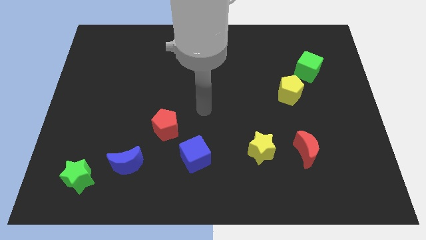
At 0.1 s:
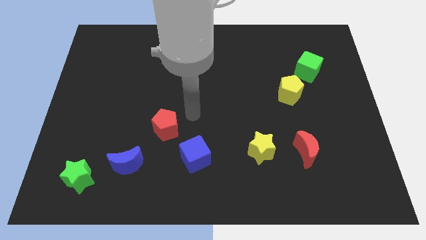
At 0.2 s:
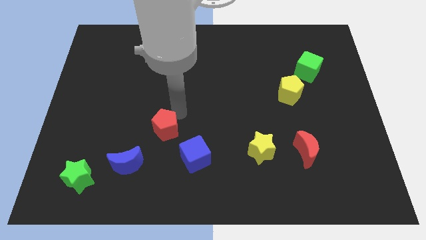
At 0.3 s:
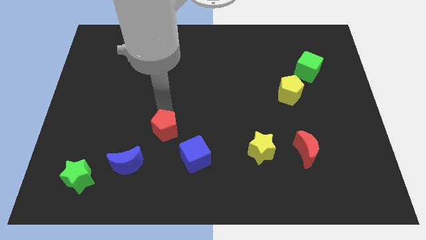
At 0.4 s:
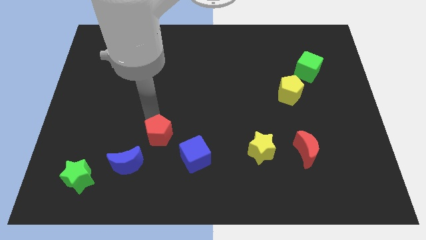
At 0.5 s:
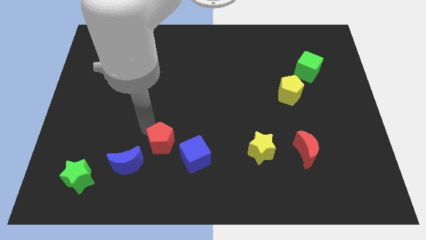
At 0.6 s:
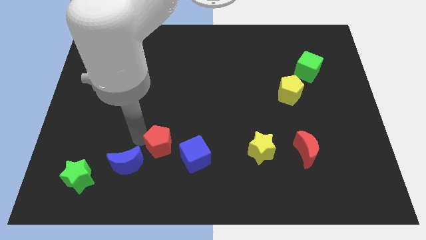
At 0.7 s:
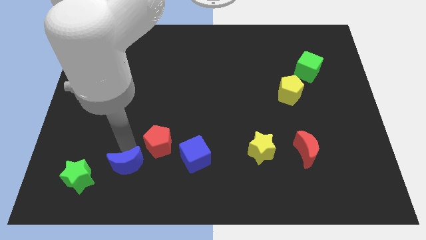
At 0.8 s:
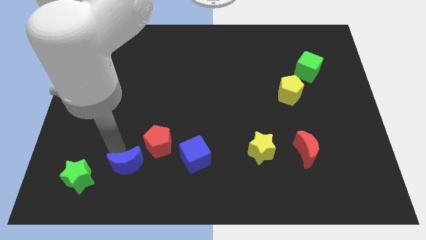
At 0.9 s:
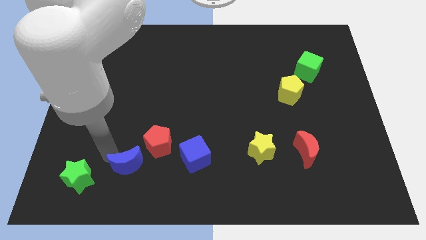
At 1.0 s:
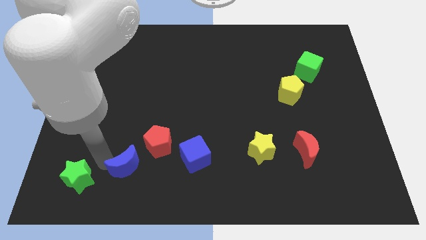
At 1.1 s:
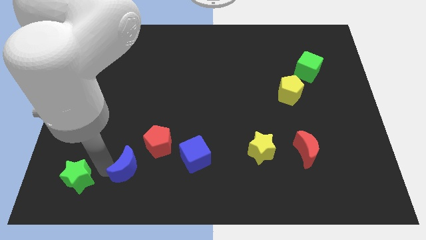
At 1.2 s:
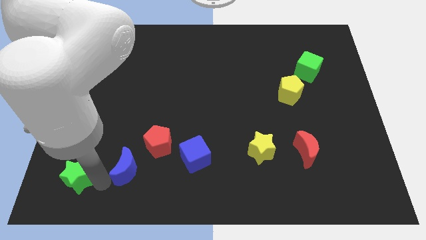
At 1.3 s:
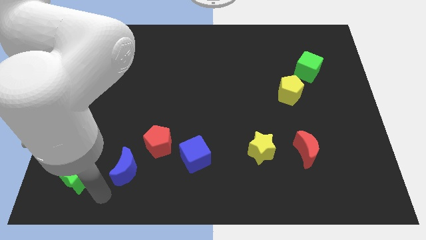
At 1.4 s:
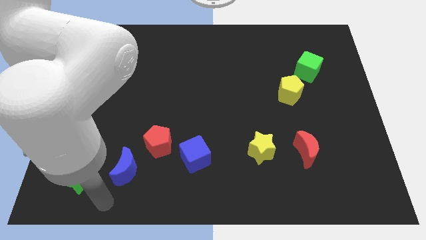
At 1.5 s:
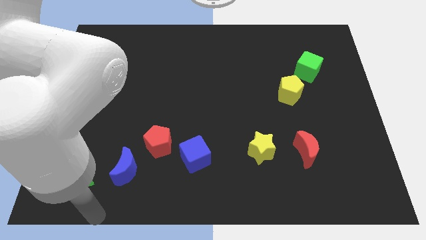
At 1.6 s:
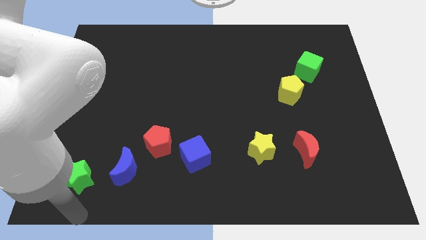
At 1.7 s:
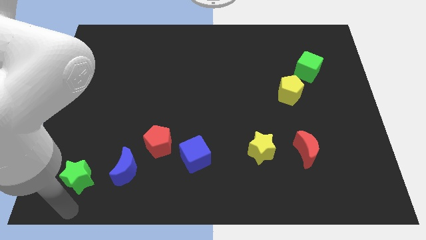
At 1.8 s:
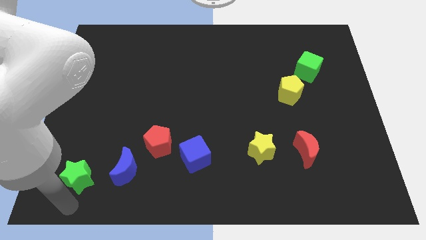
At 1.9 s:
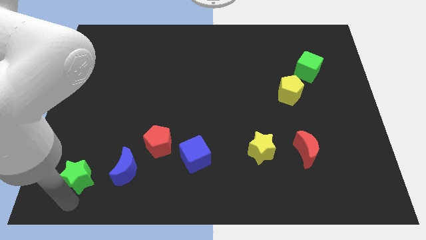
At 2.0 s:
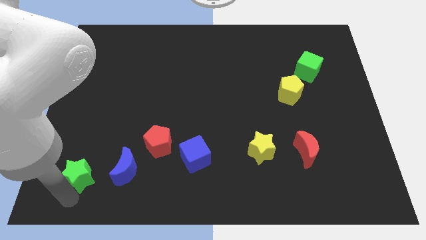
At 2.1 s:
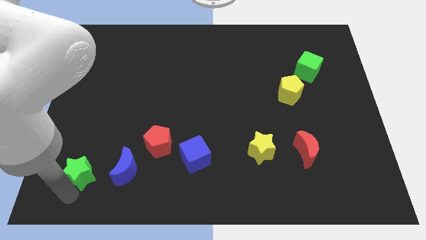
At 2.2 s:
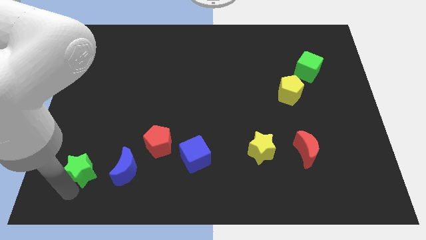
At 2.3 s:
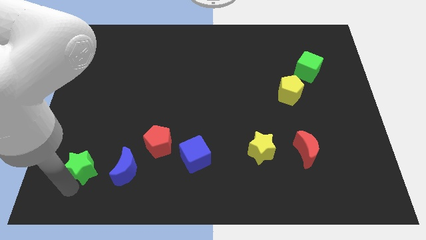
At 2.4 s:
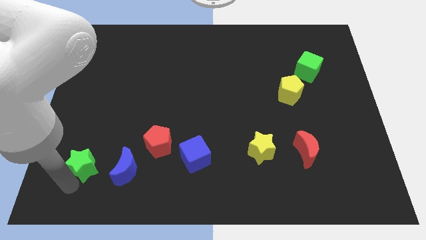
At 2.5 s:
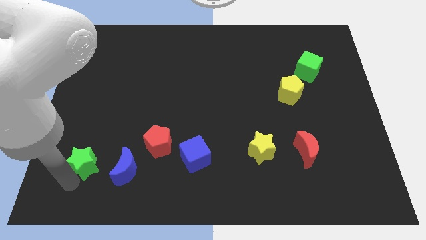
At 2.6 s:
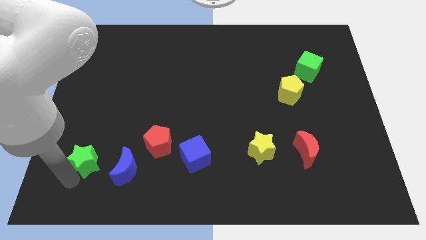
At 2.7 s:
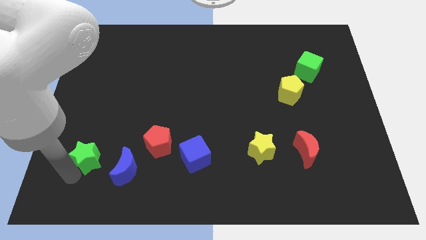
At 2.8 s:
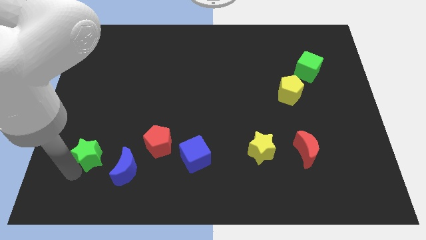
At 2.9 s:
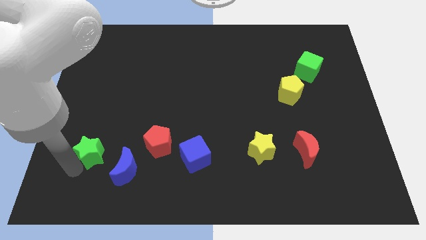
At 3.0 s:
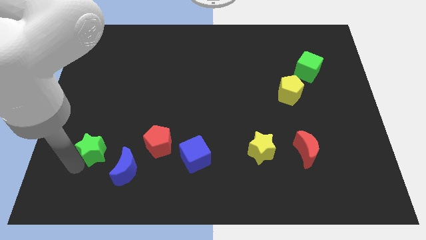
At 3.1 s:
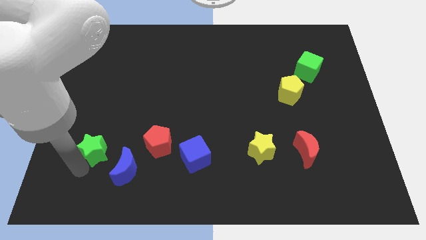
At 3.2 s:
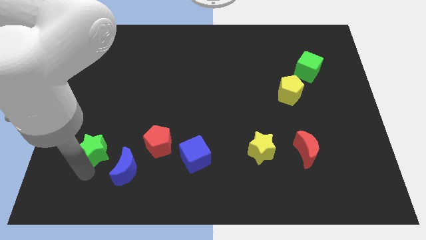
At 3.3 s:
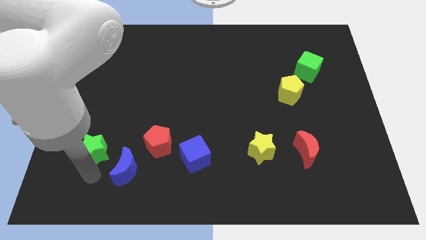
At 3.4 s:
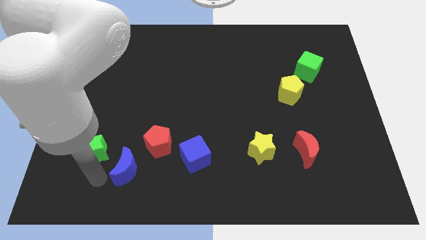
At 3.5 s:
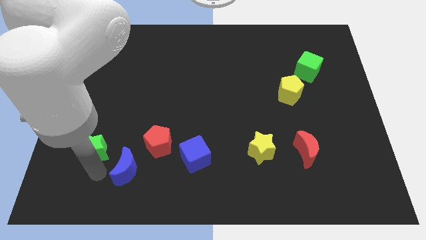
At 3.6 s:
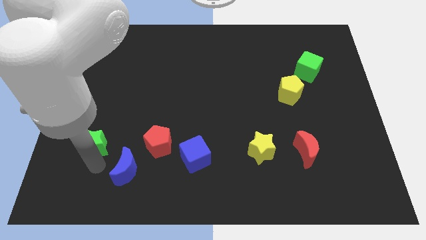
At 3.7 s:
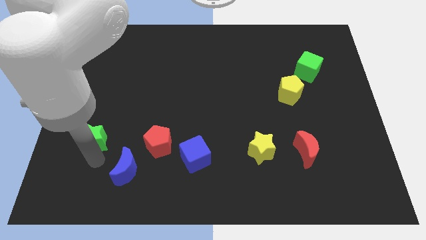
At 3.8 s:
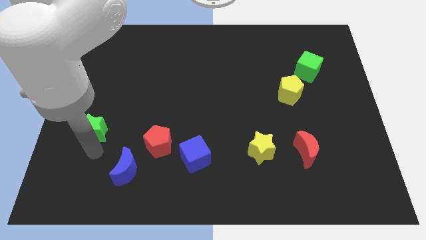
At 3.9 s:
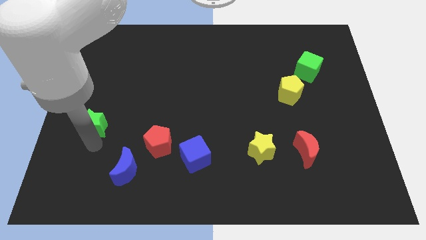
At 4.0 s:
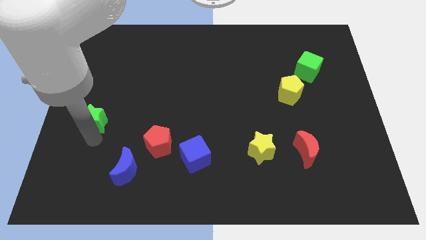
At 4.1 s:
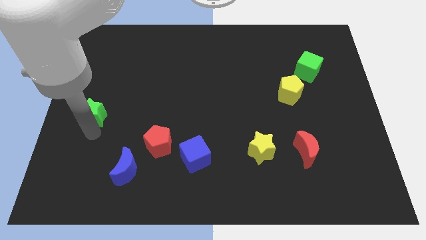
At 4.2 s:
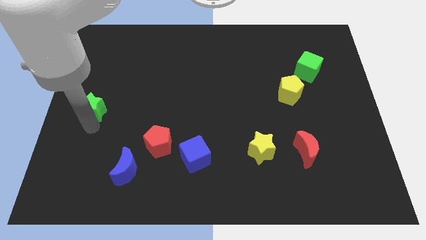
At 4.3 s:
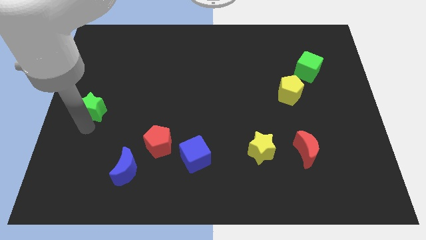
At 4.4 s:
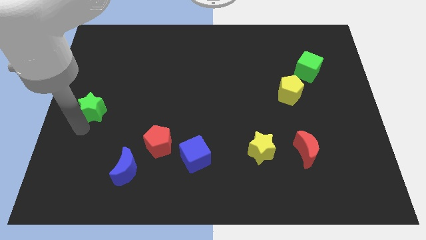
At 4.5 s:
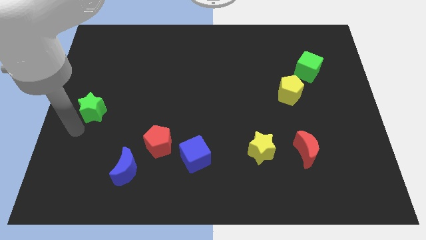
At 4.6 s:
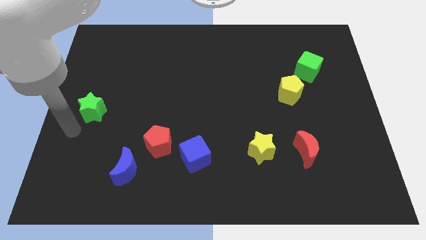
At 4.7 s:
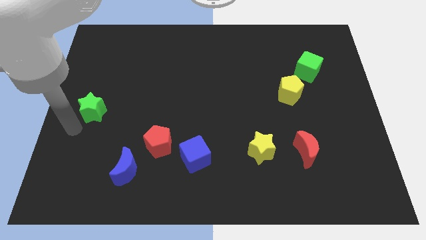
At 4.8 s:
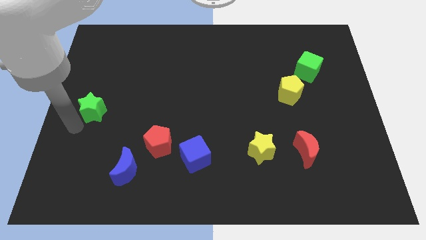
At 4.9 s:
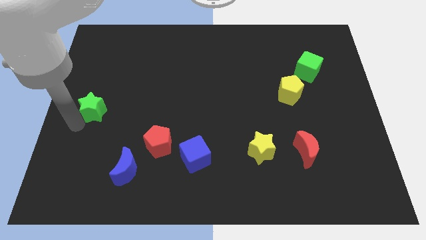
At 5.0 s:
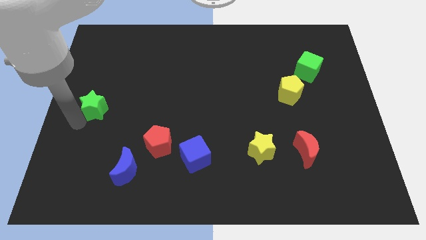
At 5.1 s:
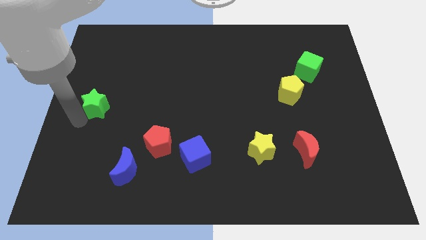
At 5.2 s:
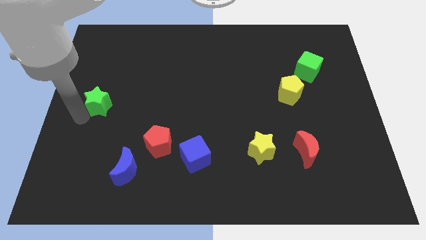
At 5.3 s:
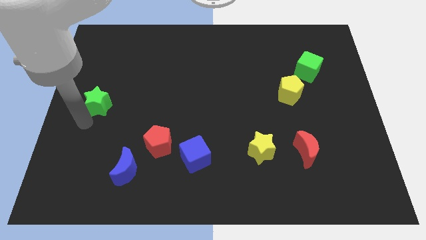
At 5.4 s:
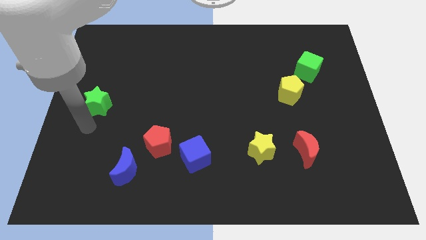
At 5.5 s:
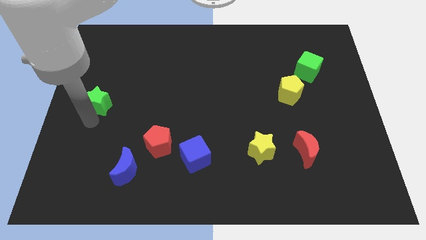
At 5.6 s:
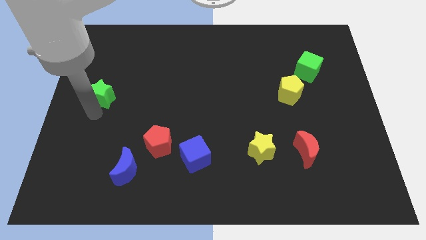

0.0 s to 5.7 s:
slide the green star upwards

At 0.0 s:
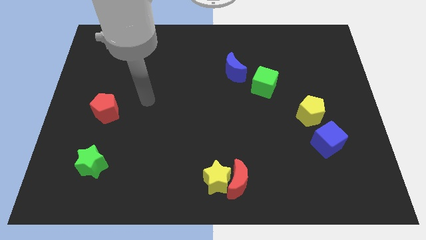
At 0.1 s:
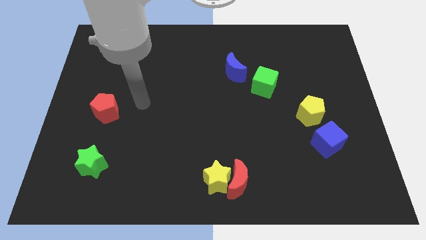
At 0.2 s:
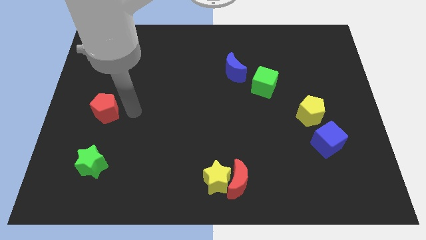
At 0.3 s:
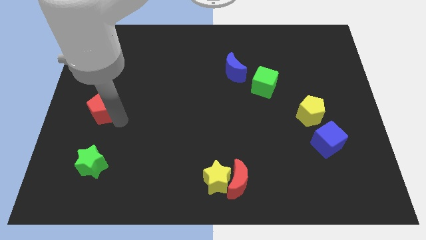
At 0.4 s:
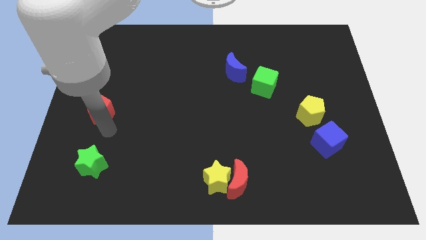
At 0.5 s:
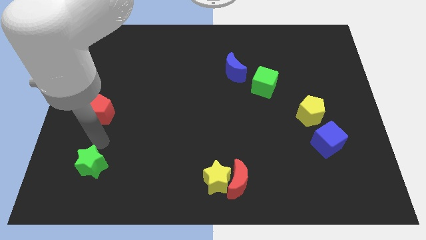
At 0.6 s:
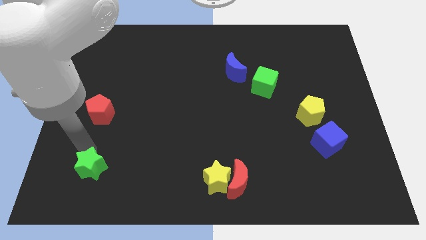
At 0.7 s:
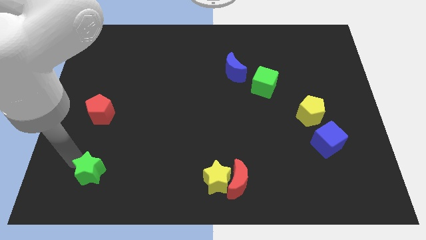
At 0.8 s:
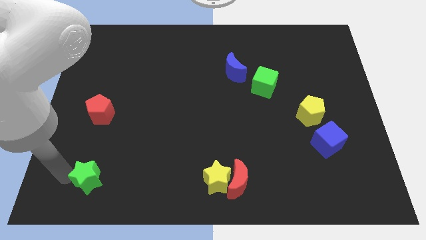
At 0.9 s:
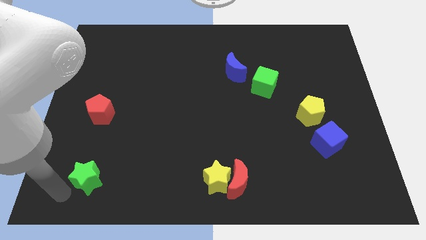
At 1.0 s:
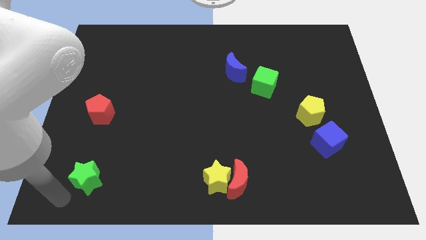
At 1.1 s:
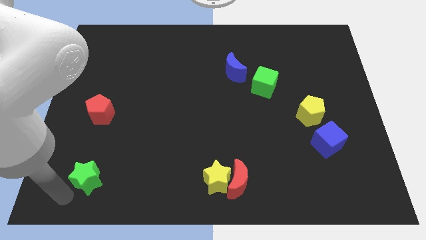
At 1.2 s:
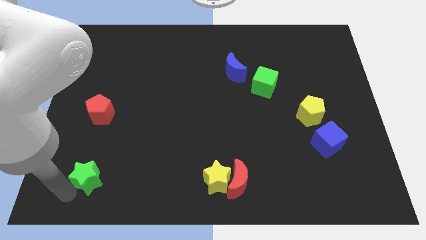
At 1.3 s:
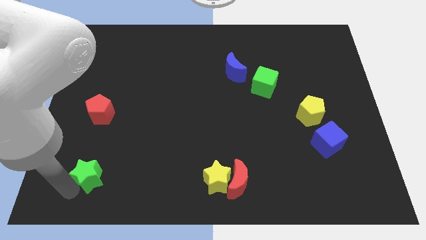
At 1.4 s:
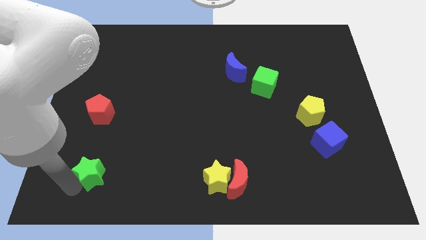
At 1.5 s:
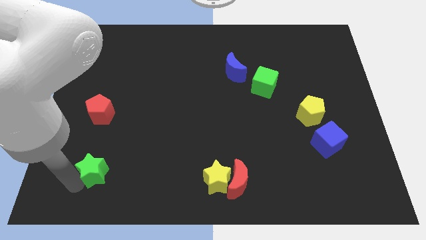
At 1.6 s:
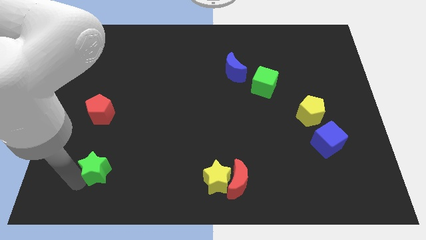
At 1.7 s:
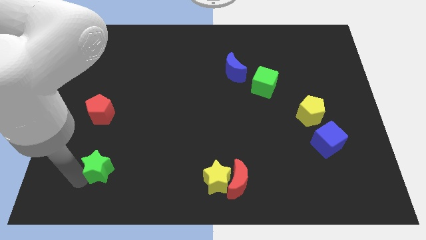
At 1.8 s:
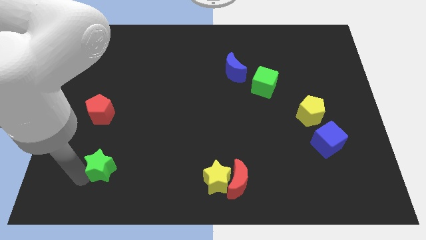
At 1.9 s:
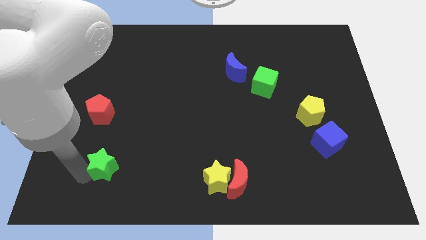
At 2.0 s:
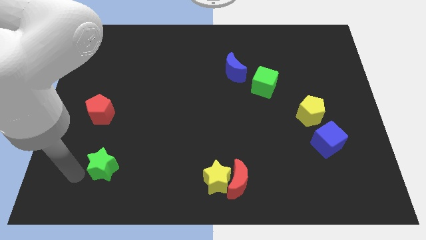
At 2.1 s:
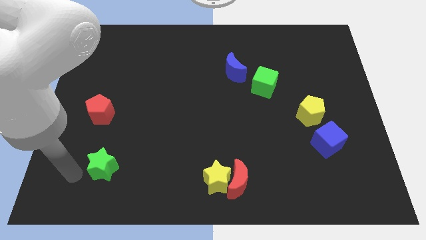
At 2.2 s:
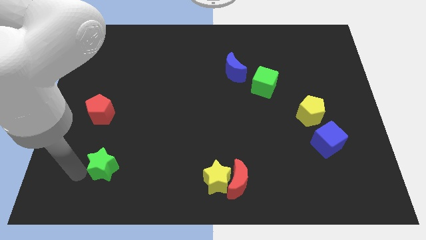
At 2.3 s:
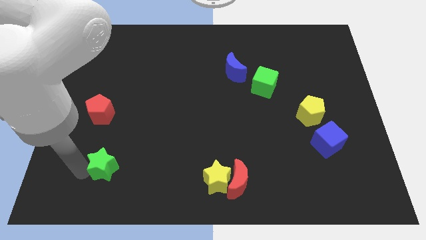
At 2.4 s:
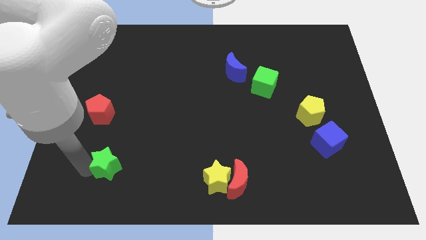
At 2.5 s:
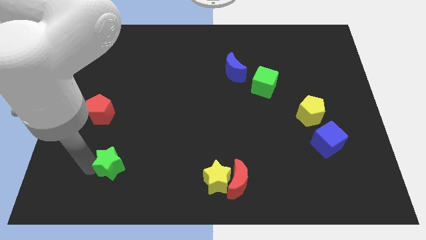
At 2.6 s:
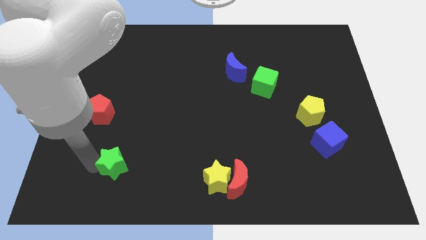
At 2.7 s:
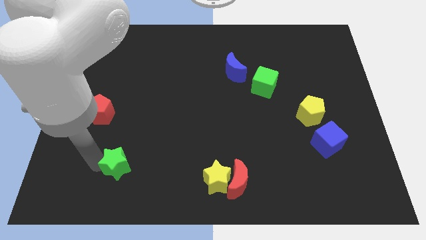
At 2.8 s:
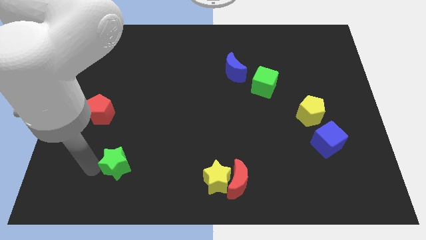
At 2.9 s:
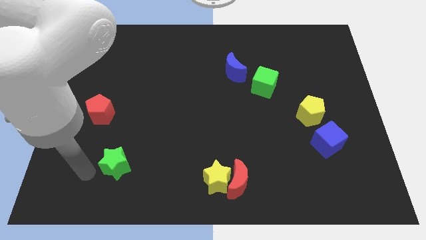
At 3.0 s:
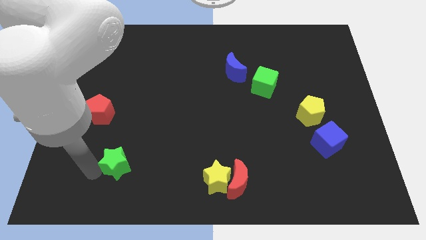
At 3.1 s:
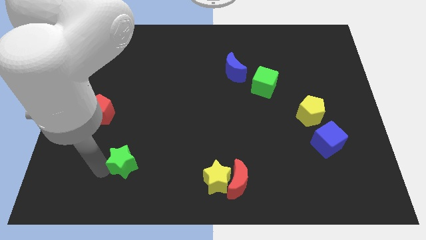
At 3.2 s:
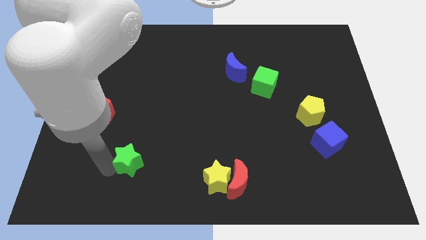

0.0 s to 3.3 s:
slide the green star to the right a little
